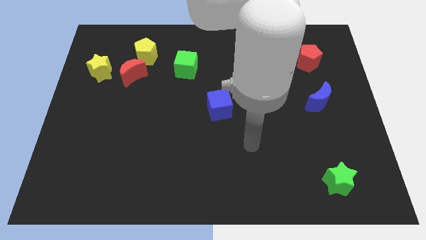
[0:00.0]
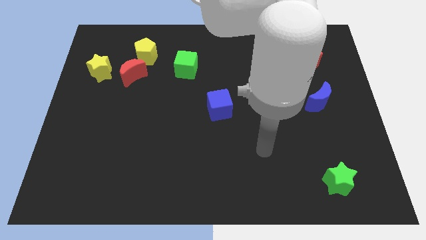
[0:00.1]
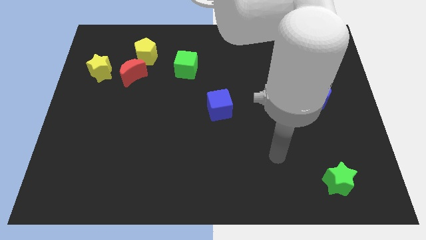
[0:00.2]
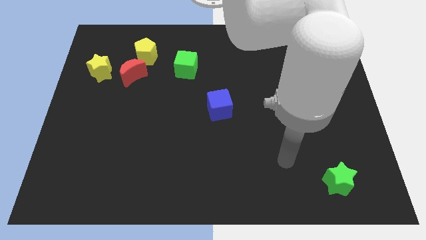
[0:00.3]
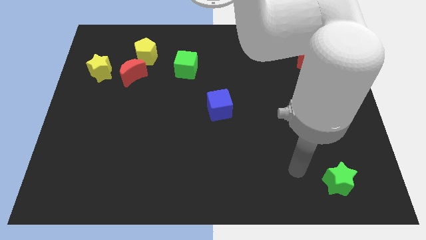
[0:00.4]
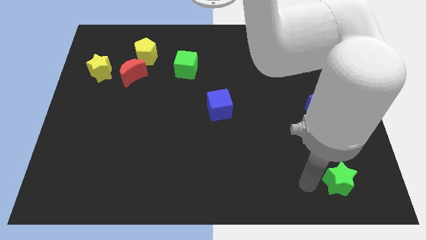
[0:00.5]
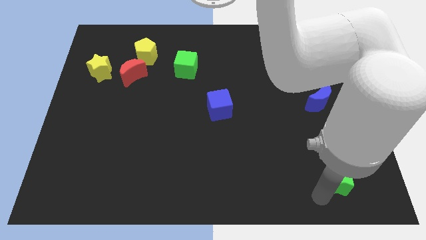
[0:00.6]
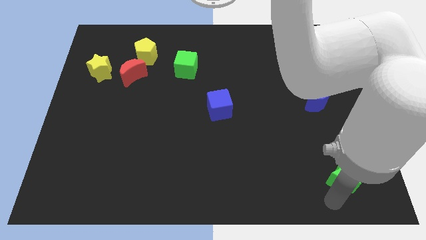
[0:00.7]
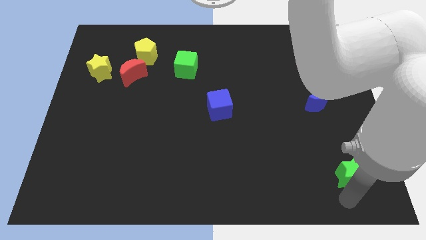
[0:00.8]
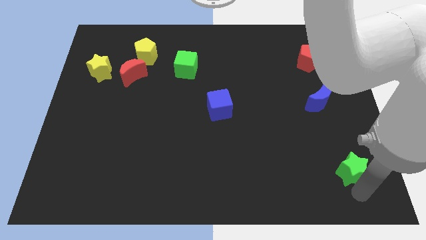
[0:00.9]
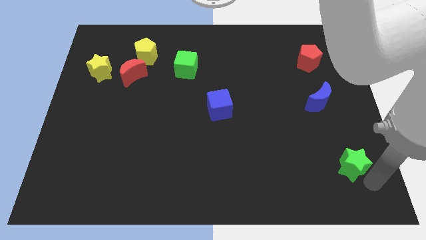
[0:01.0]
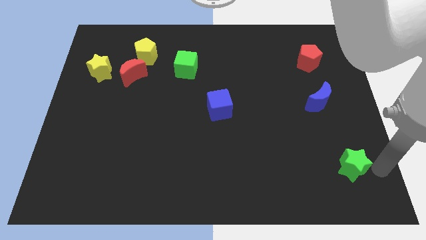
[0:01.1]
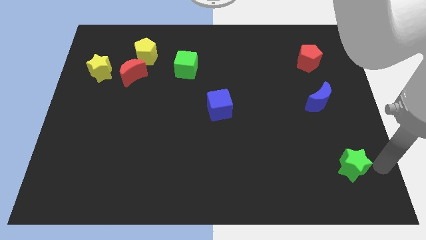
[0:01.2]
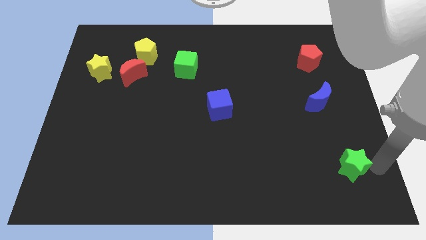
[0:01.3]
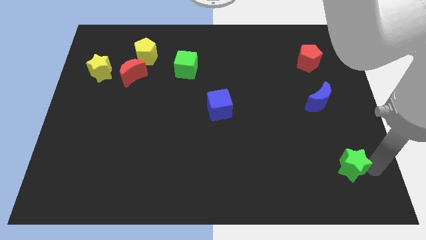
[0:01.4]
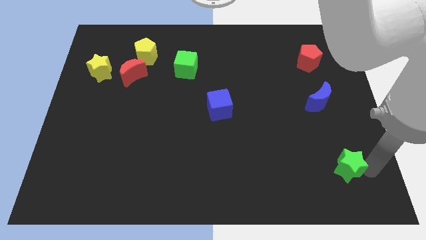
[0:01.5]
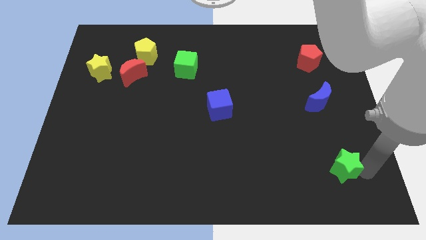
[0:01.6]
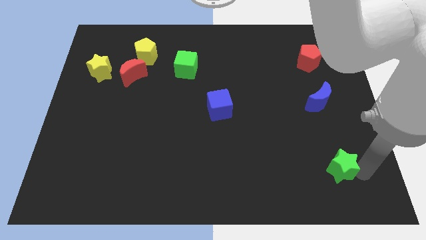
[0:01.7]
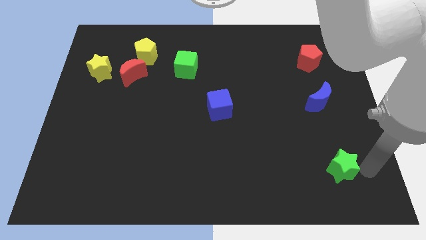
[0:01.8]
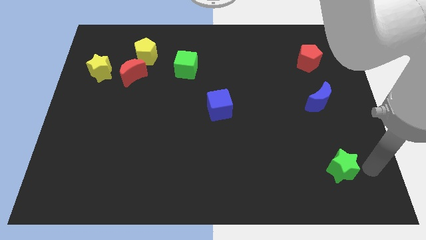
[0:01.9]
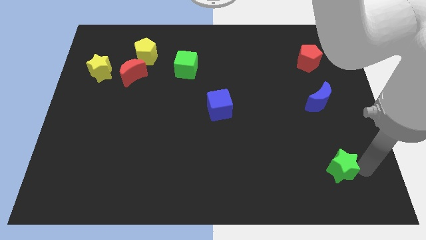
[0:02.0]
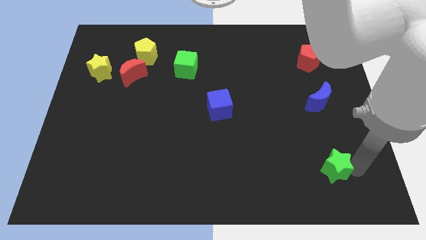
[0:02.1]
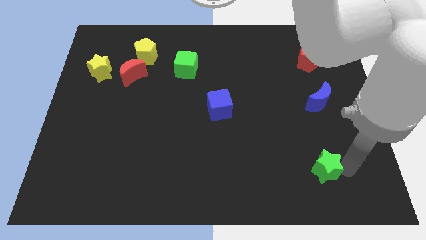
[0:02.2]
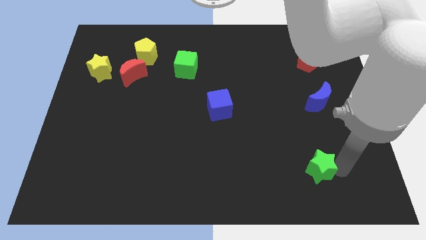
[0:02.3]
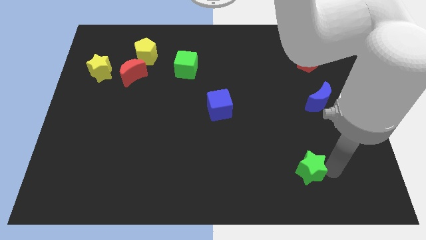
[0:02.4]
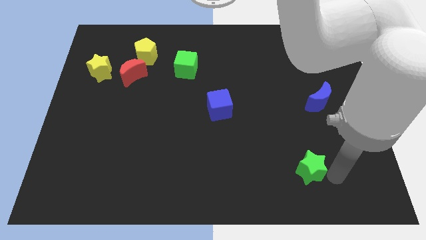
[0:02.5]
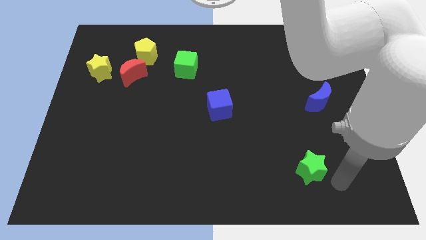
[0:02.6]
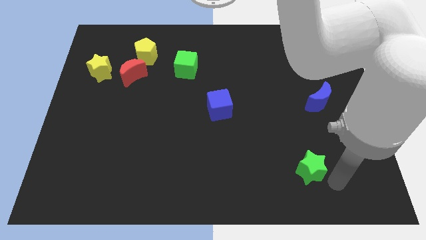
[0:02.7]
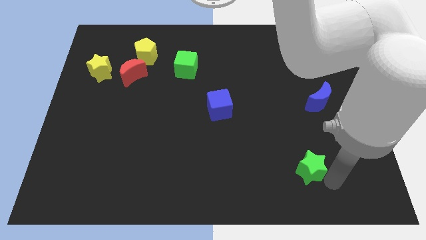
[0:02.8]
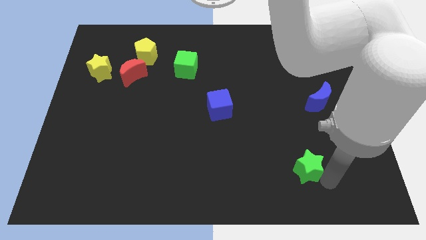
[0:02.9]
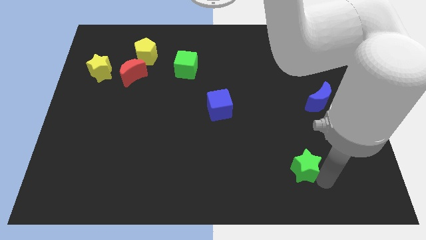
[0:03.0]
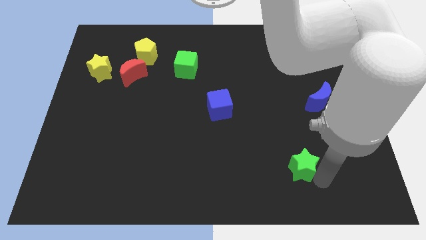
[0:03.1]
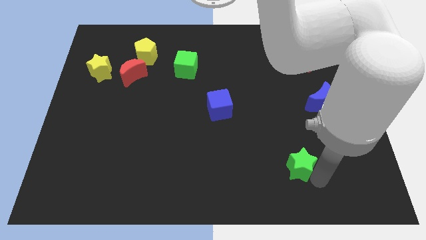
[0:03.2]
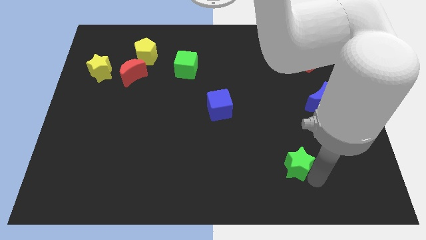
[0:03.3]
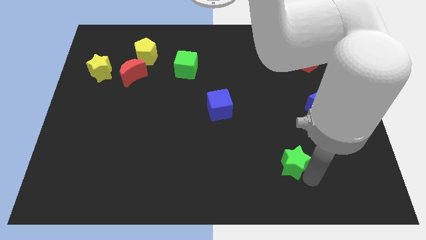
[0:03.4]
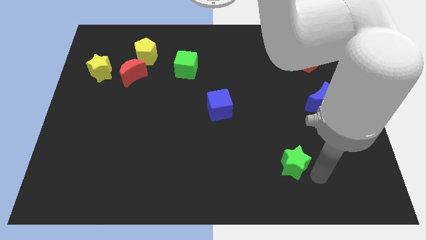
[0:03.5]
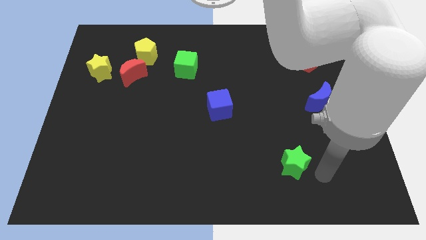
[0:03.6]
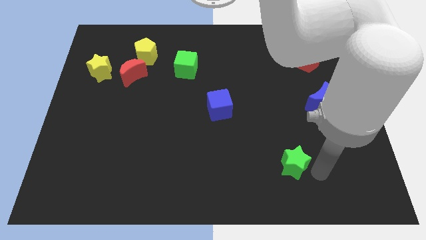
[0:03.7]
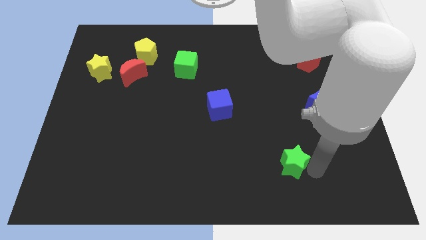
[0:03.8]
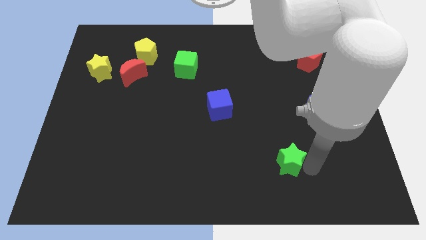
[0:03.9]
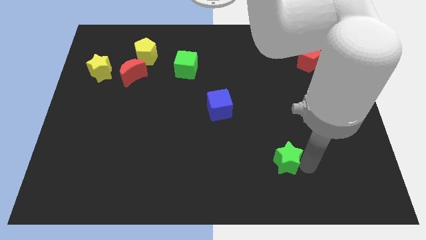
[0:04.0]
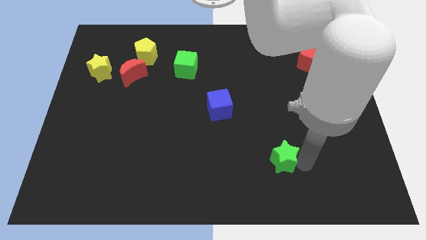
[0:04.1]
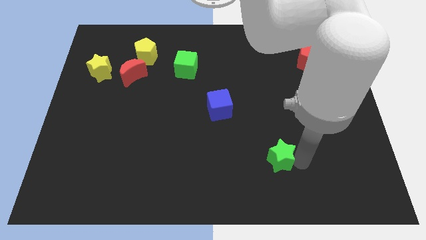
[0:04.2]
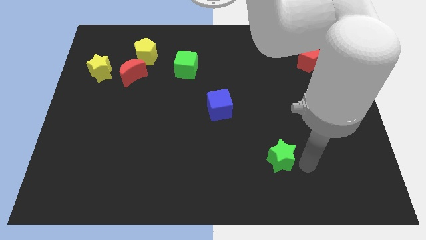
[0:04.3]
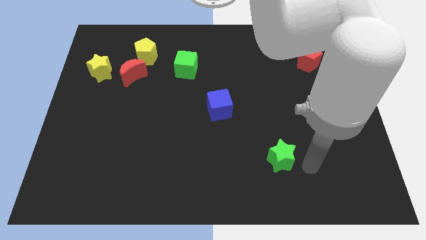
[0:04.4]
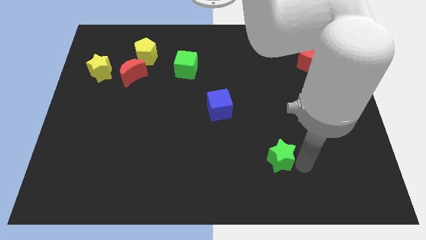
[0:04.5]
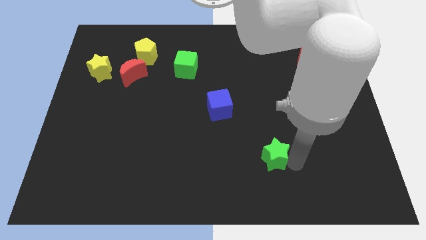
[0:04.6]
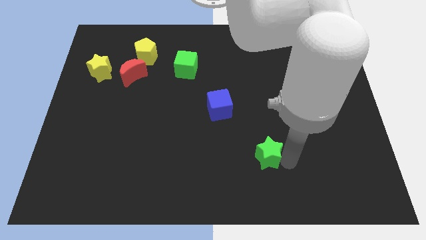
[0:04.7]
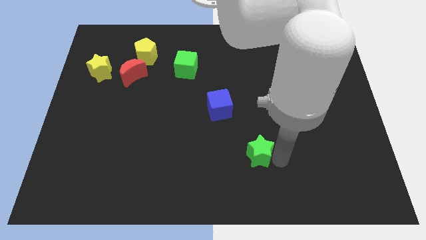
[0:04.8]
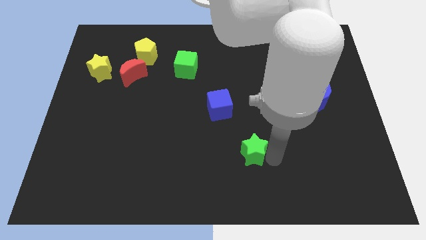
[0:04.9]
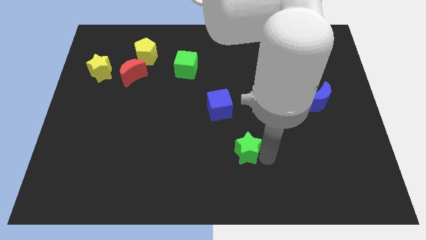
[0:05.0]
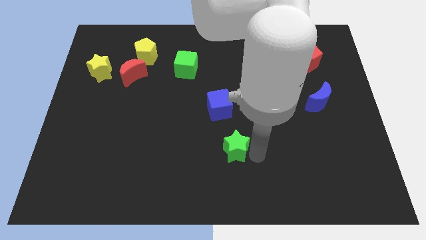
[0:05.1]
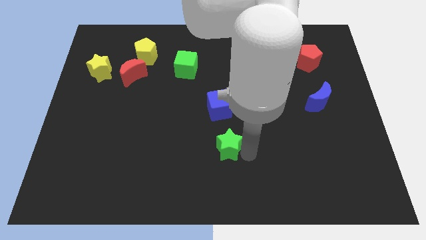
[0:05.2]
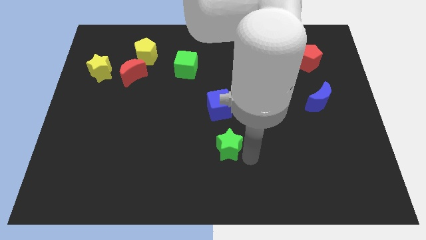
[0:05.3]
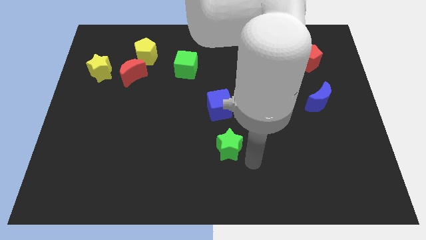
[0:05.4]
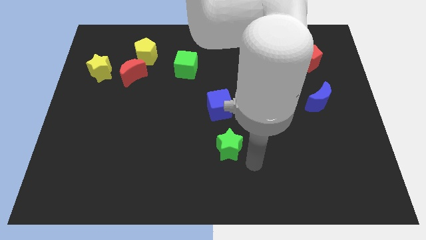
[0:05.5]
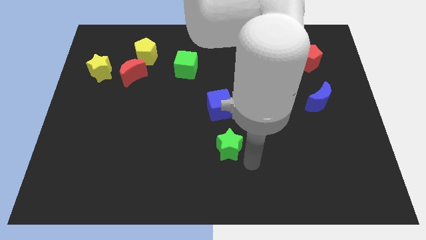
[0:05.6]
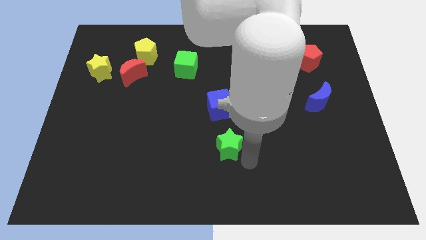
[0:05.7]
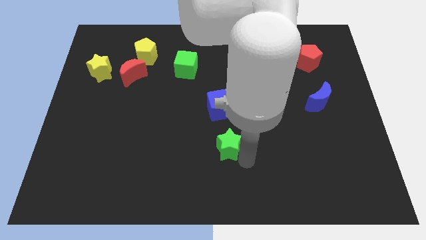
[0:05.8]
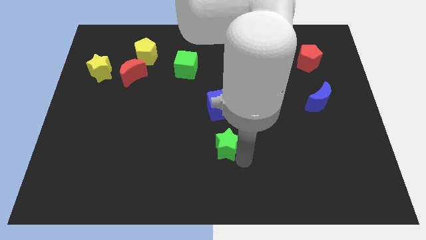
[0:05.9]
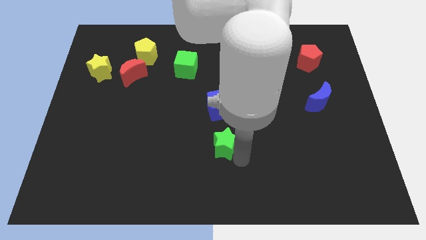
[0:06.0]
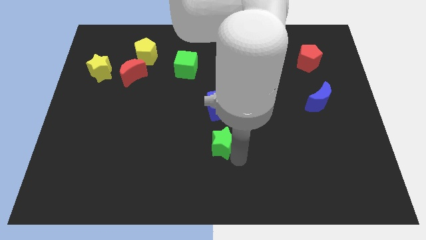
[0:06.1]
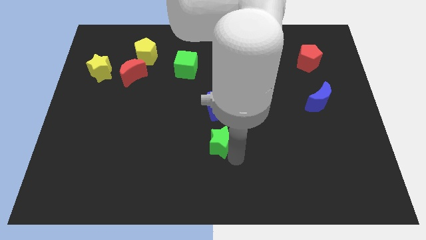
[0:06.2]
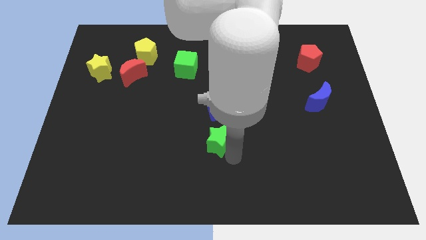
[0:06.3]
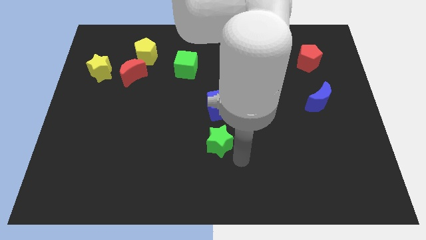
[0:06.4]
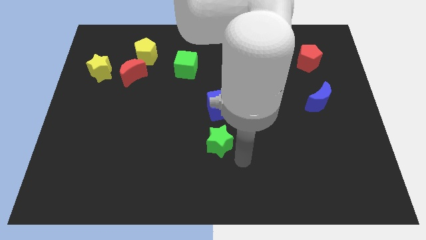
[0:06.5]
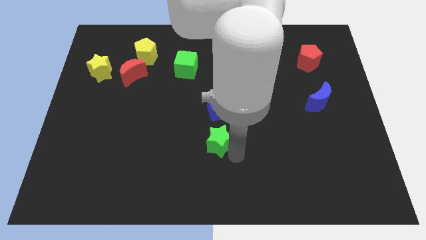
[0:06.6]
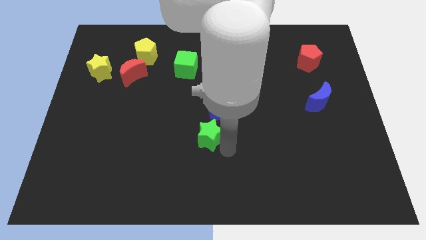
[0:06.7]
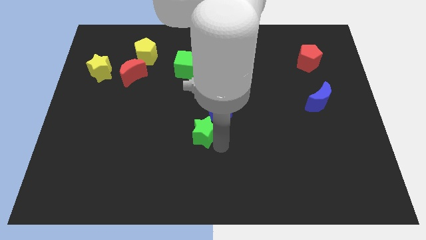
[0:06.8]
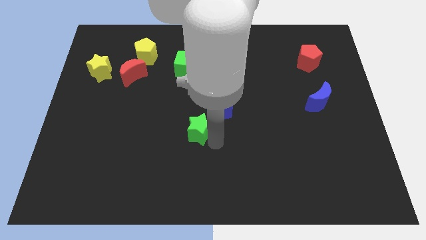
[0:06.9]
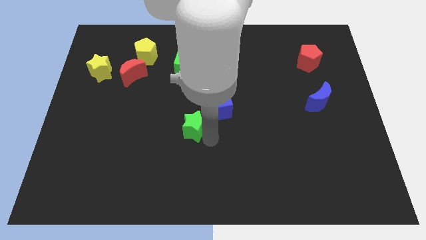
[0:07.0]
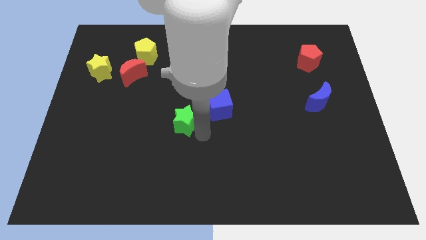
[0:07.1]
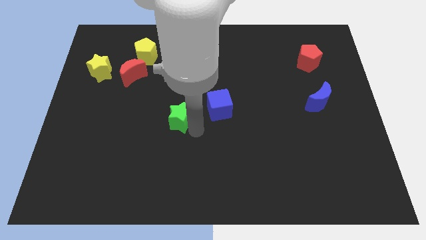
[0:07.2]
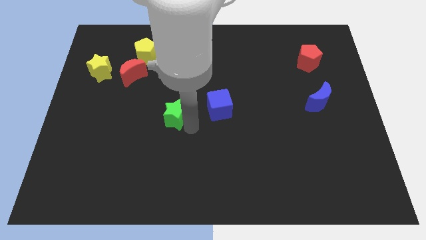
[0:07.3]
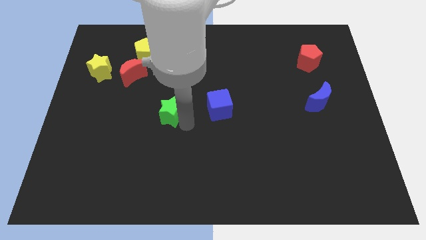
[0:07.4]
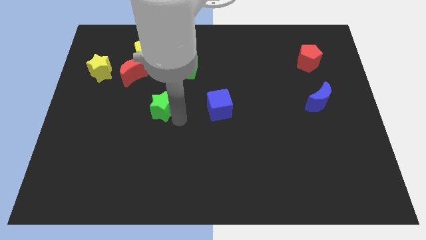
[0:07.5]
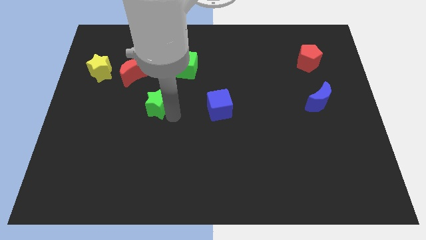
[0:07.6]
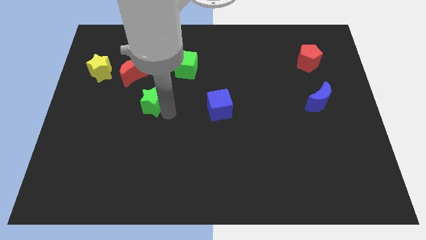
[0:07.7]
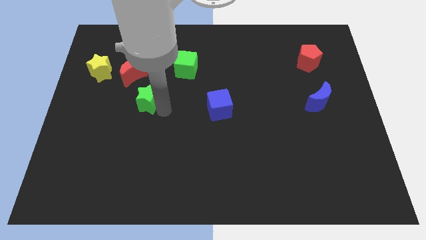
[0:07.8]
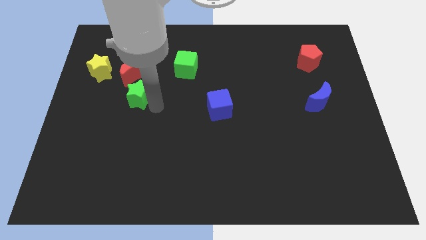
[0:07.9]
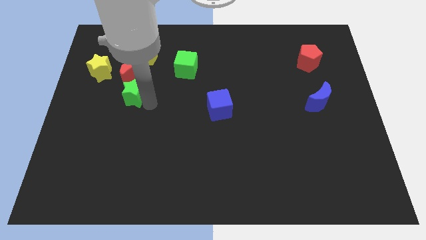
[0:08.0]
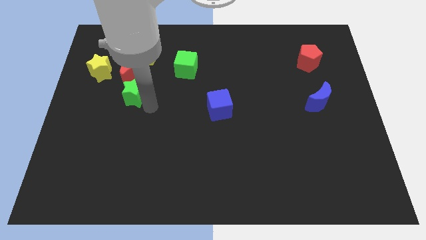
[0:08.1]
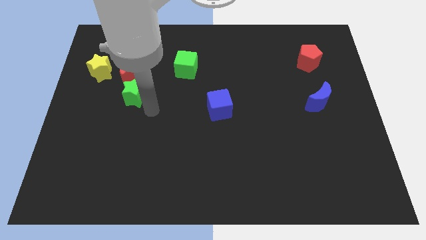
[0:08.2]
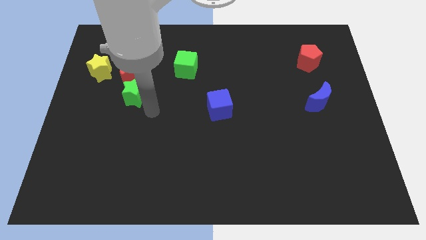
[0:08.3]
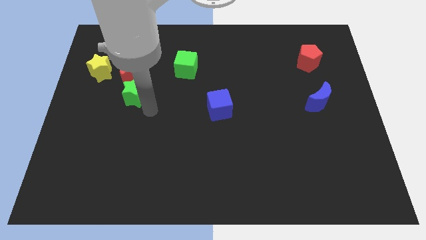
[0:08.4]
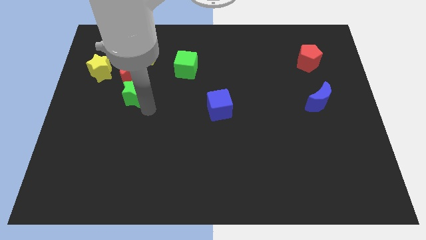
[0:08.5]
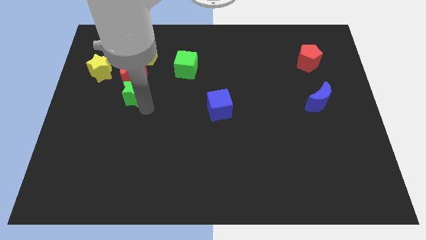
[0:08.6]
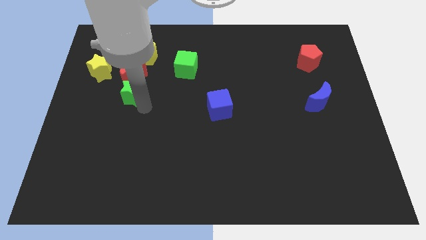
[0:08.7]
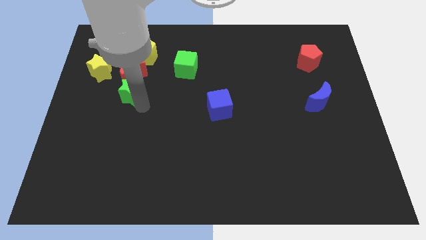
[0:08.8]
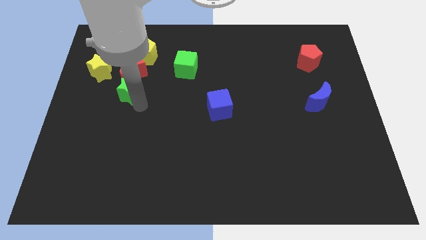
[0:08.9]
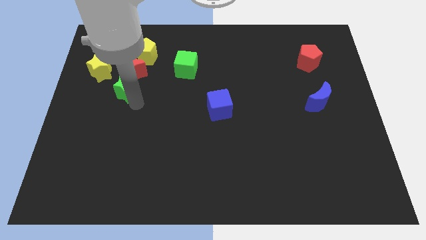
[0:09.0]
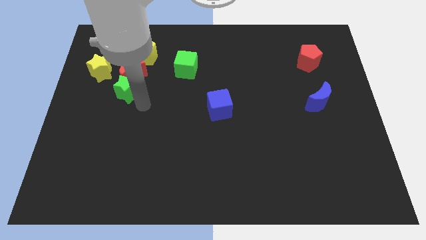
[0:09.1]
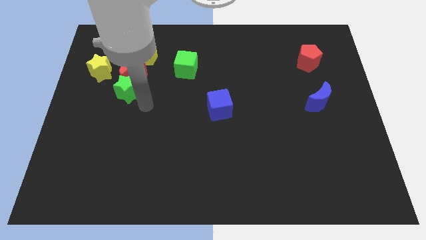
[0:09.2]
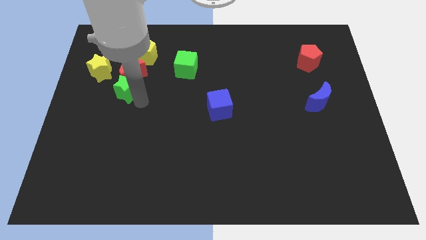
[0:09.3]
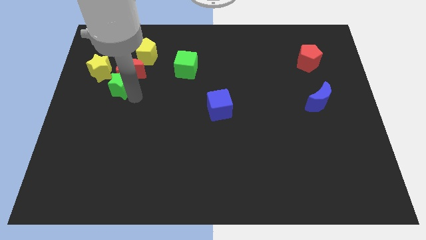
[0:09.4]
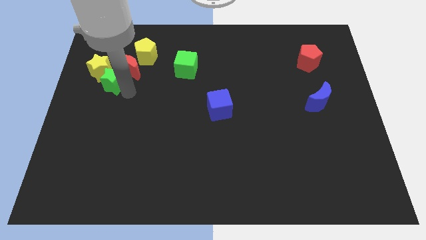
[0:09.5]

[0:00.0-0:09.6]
slide the green star towards the yellow star
